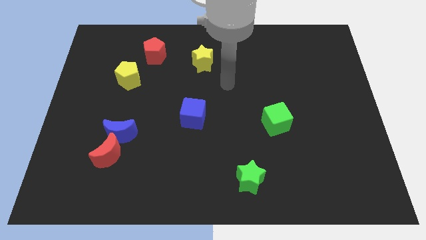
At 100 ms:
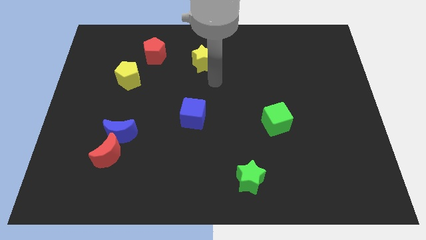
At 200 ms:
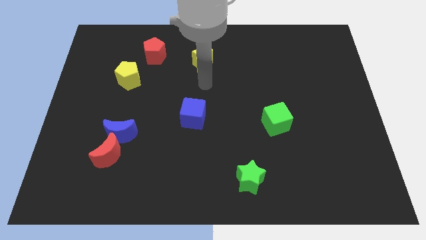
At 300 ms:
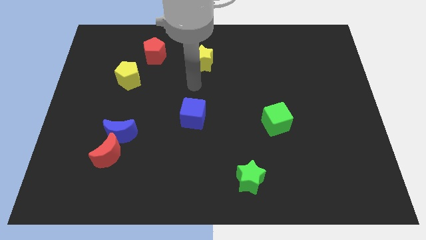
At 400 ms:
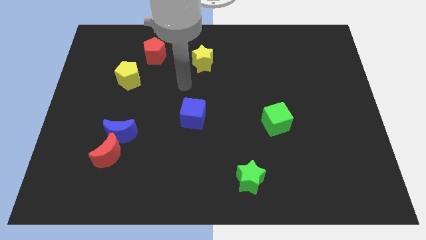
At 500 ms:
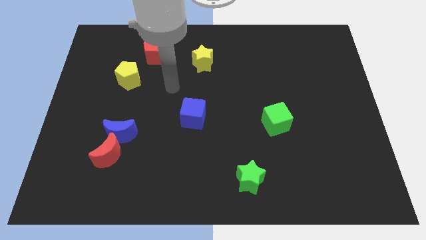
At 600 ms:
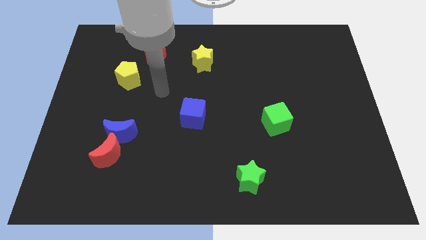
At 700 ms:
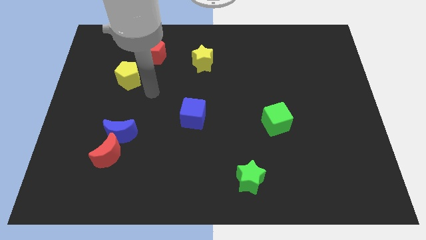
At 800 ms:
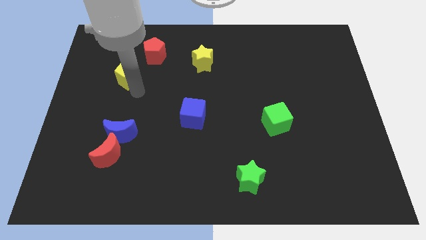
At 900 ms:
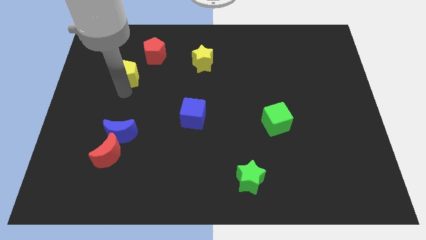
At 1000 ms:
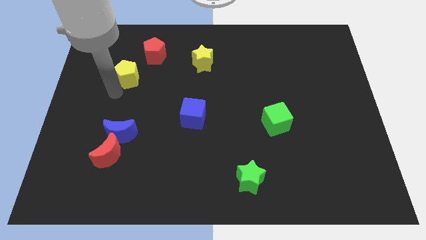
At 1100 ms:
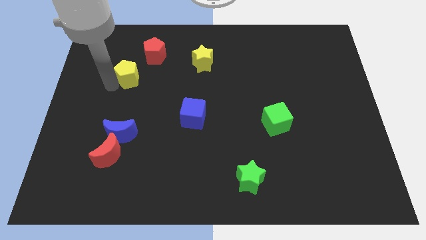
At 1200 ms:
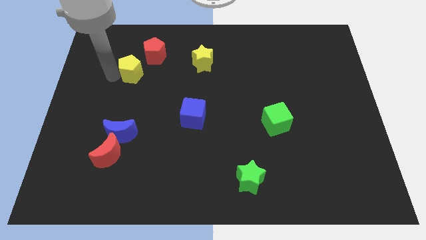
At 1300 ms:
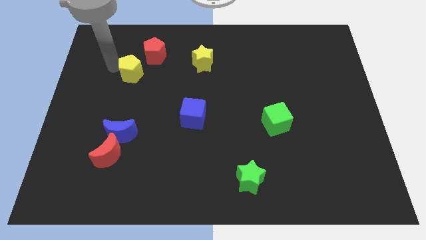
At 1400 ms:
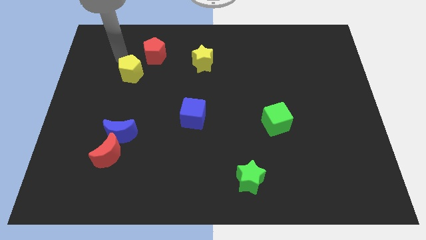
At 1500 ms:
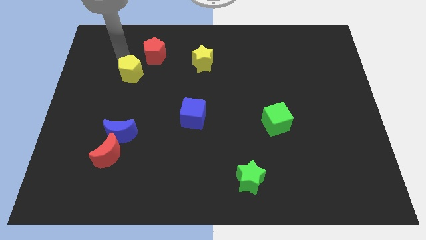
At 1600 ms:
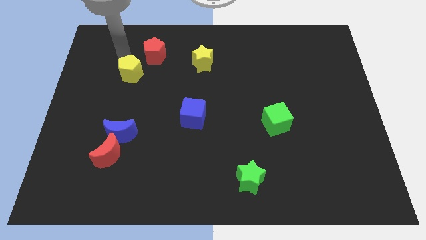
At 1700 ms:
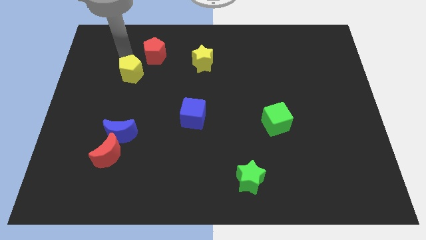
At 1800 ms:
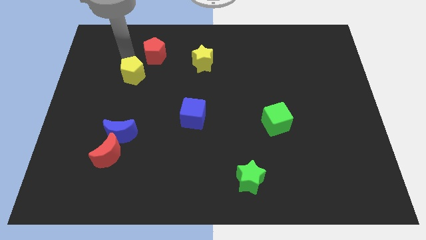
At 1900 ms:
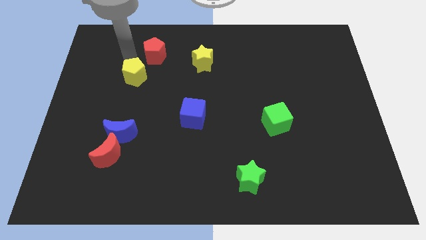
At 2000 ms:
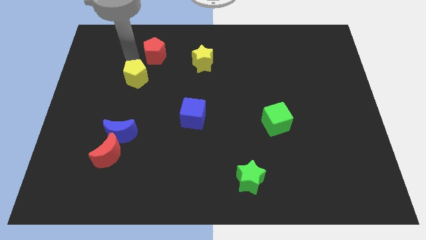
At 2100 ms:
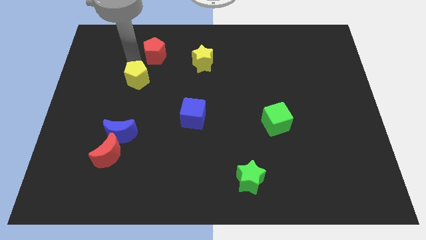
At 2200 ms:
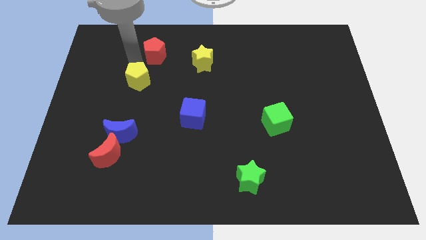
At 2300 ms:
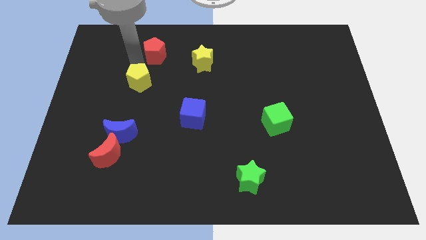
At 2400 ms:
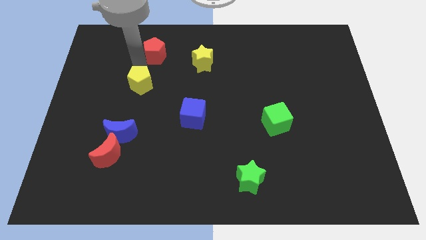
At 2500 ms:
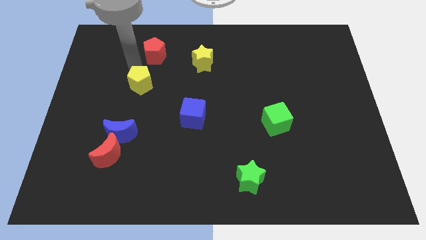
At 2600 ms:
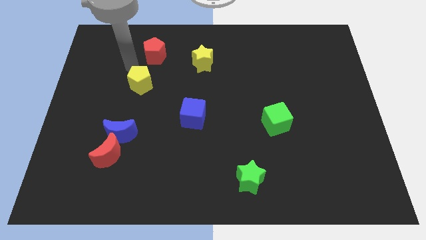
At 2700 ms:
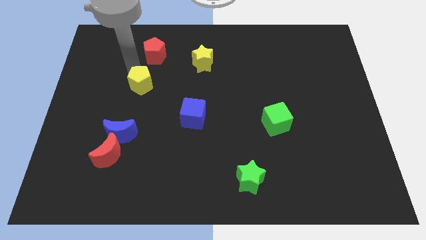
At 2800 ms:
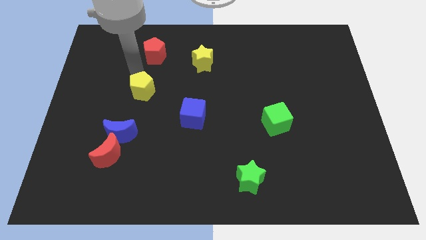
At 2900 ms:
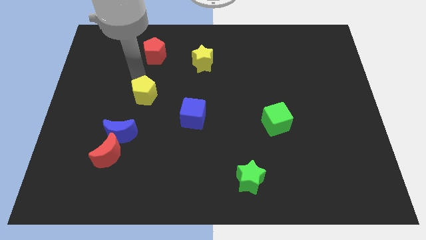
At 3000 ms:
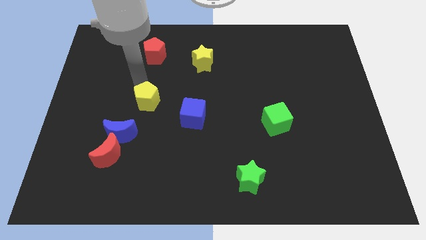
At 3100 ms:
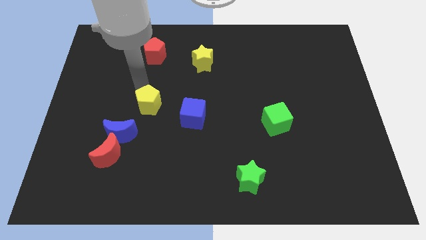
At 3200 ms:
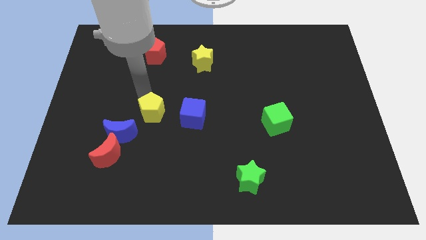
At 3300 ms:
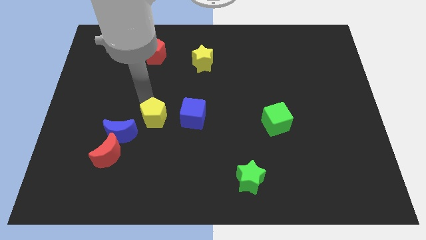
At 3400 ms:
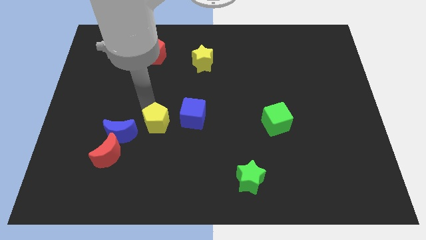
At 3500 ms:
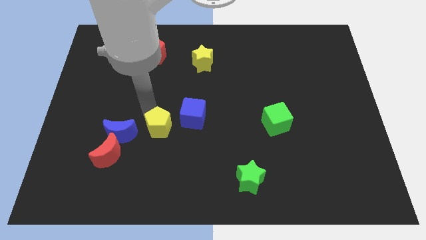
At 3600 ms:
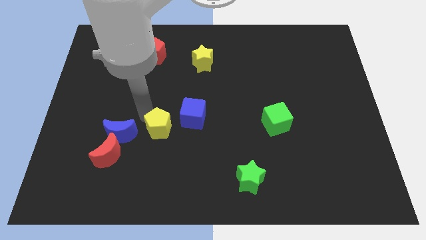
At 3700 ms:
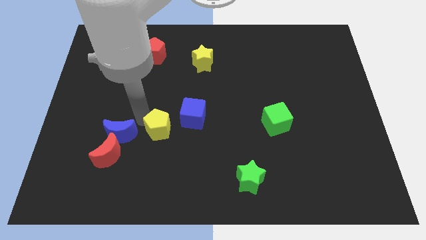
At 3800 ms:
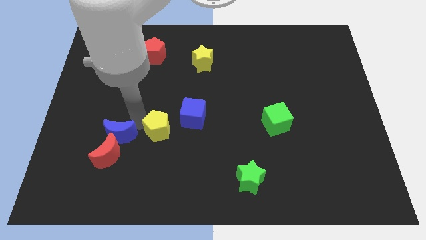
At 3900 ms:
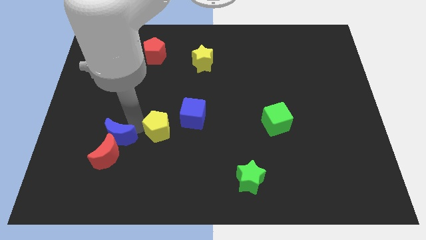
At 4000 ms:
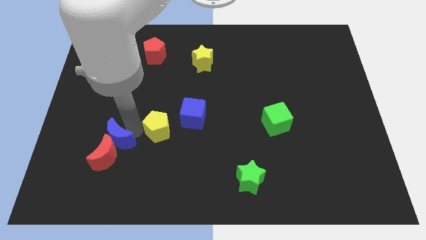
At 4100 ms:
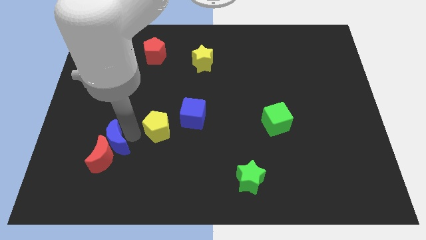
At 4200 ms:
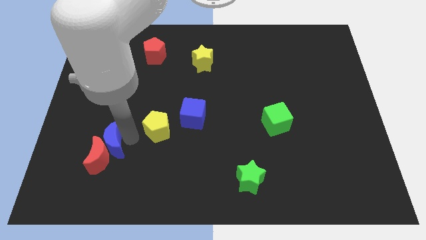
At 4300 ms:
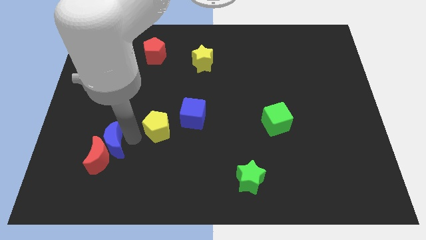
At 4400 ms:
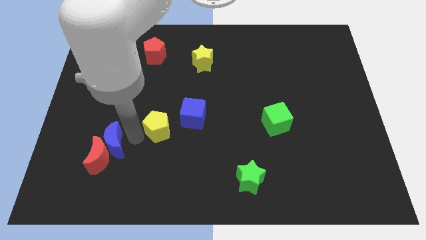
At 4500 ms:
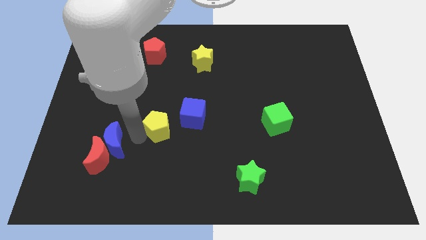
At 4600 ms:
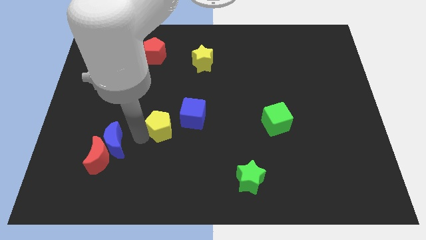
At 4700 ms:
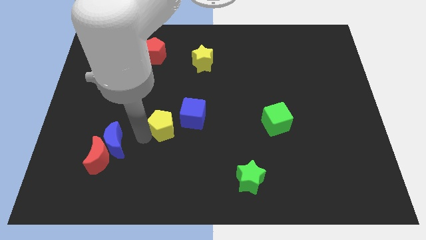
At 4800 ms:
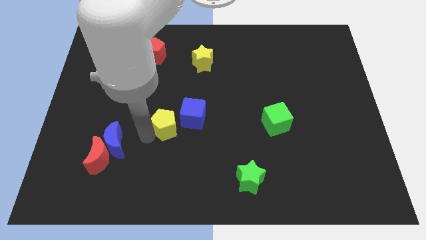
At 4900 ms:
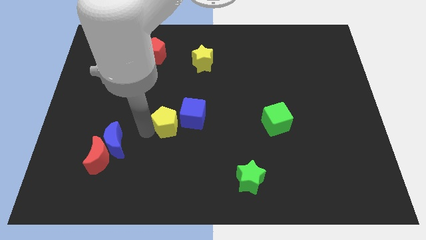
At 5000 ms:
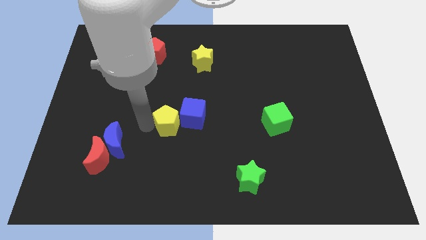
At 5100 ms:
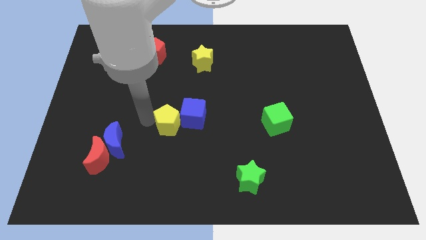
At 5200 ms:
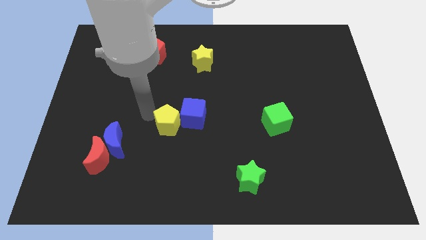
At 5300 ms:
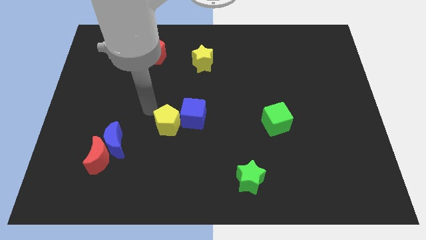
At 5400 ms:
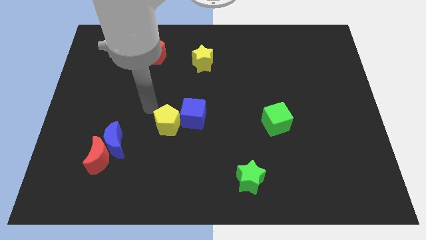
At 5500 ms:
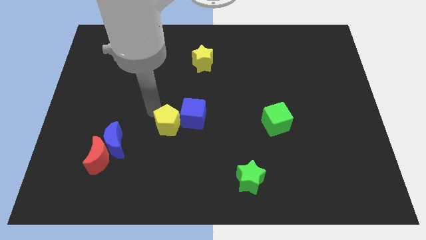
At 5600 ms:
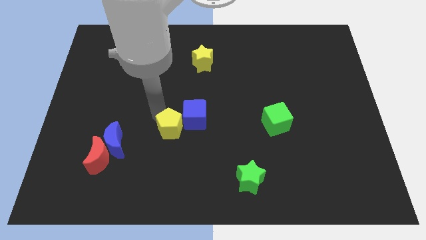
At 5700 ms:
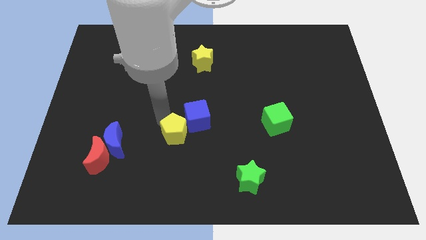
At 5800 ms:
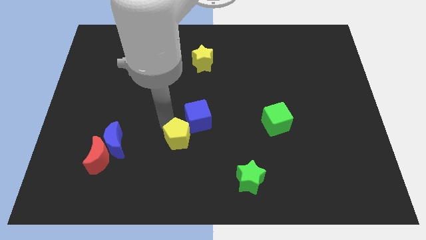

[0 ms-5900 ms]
put the yellow pentagon to the bottom side of the blue cube

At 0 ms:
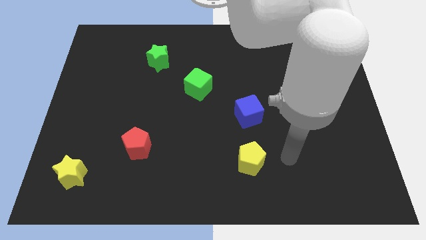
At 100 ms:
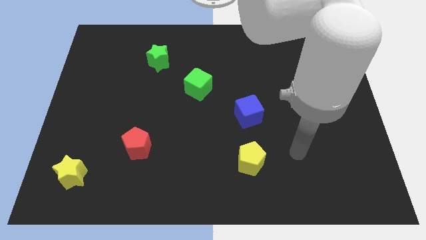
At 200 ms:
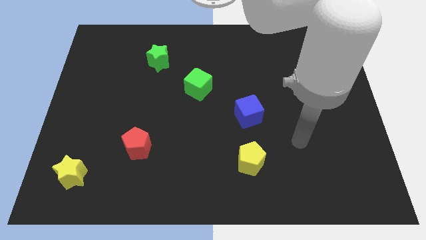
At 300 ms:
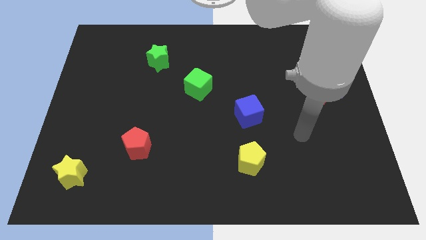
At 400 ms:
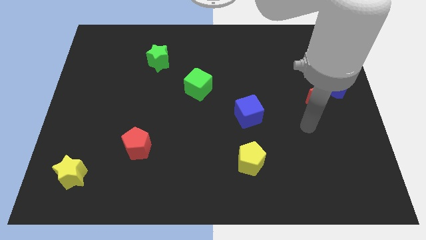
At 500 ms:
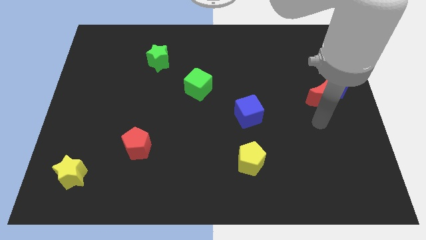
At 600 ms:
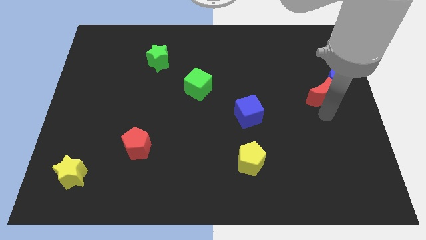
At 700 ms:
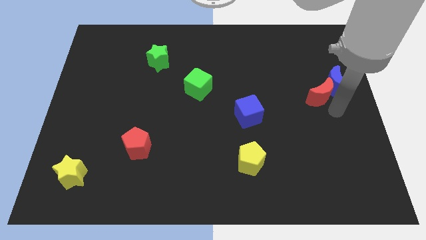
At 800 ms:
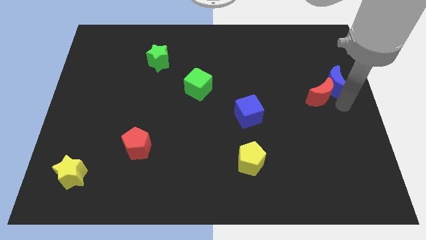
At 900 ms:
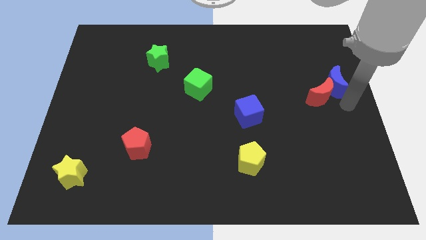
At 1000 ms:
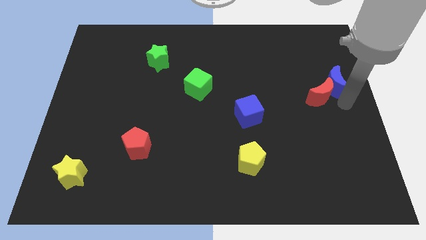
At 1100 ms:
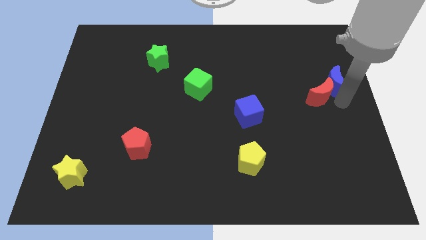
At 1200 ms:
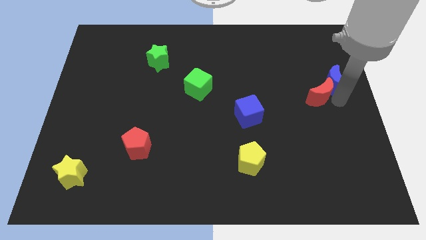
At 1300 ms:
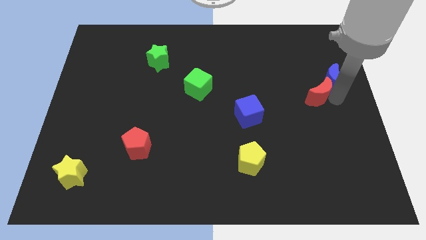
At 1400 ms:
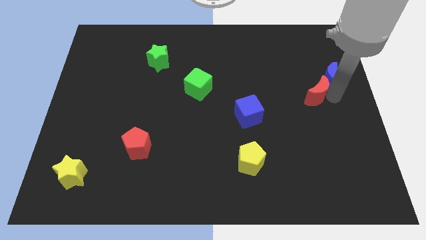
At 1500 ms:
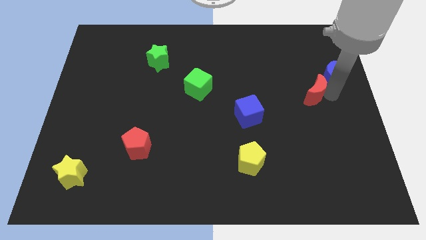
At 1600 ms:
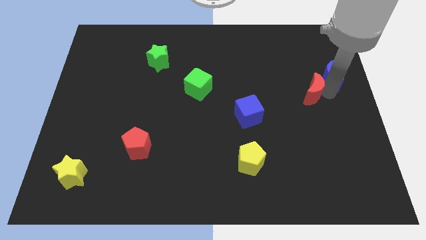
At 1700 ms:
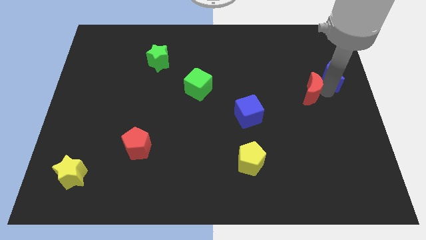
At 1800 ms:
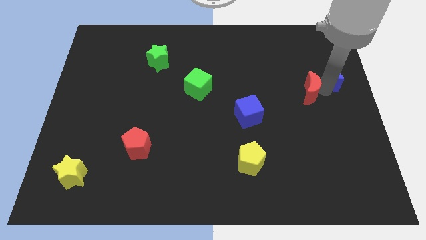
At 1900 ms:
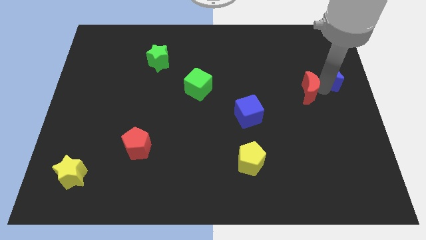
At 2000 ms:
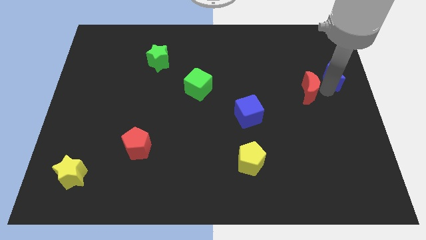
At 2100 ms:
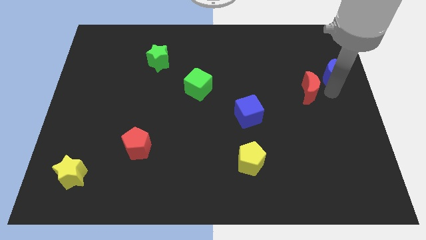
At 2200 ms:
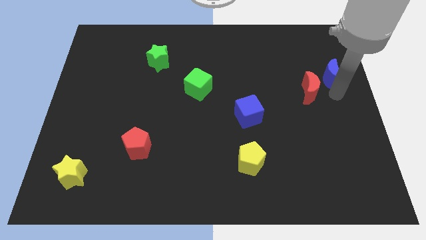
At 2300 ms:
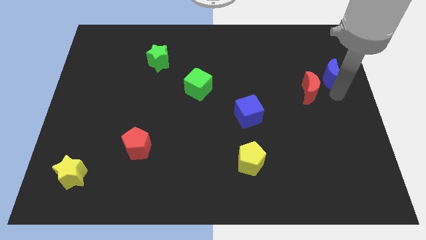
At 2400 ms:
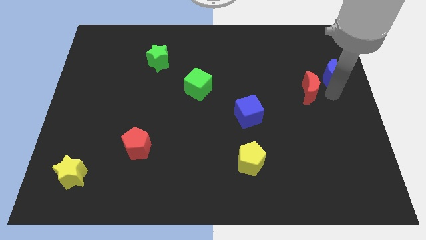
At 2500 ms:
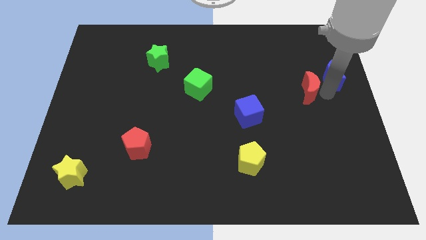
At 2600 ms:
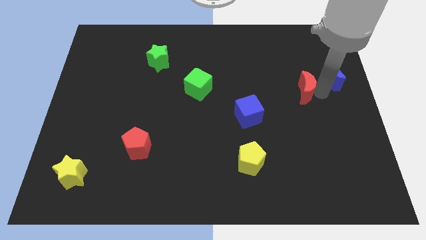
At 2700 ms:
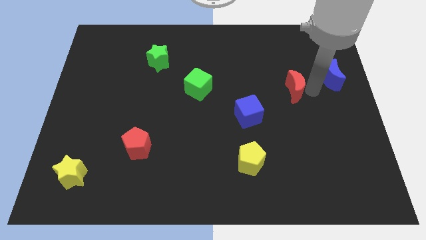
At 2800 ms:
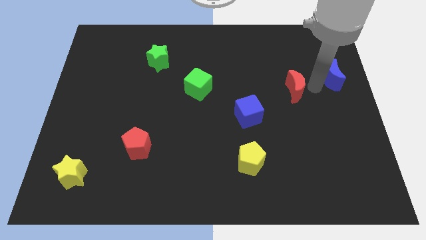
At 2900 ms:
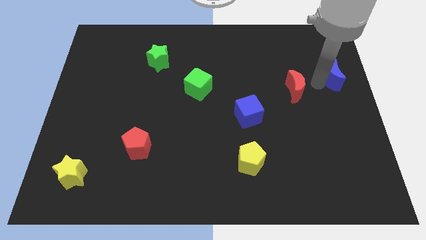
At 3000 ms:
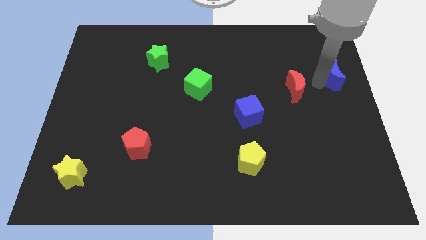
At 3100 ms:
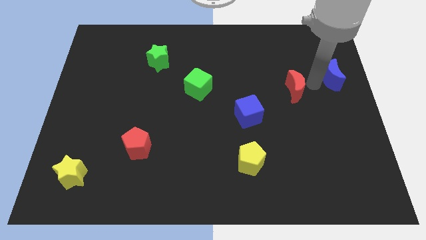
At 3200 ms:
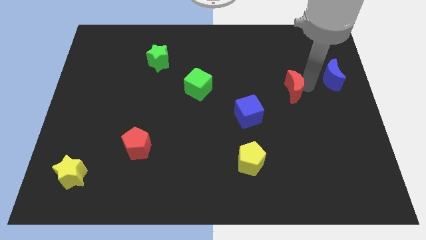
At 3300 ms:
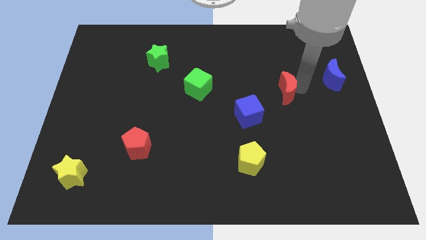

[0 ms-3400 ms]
move the red moon diagonally up and to the right of the blue cube
